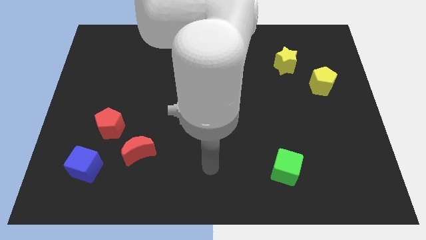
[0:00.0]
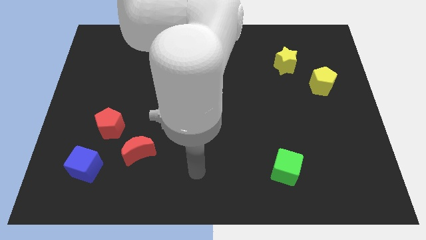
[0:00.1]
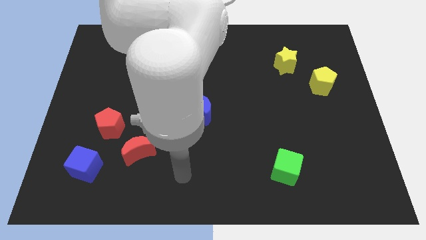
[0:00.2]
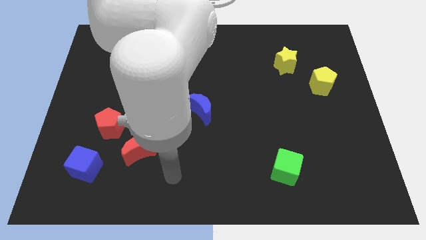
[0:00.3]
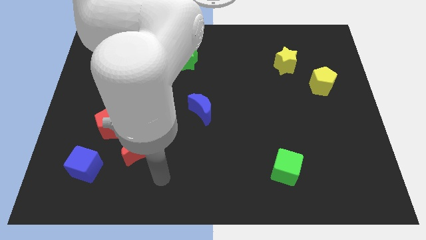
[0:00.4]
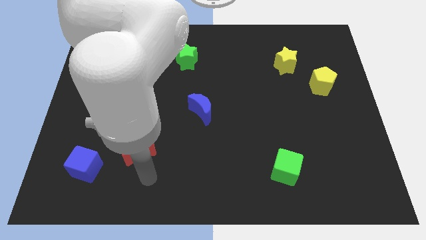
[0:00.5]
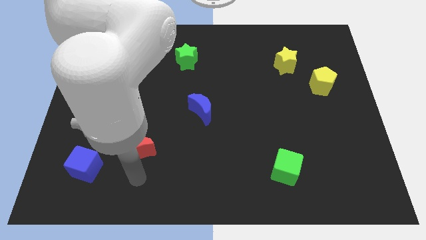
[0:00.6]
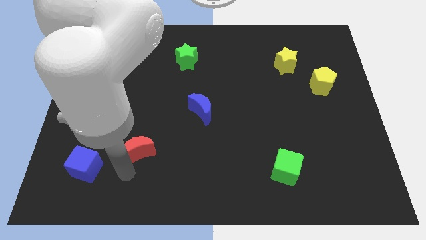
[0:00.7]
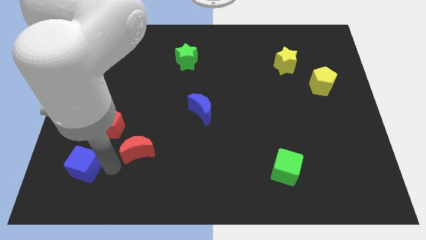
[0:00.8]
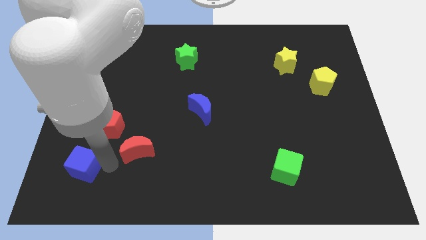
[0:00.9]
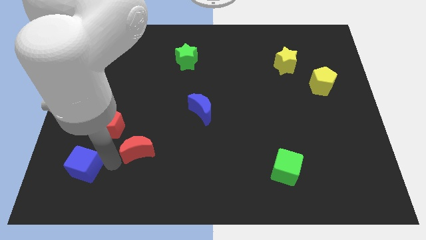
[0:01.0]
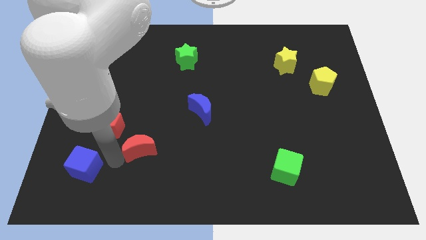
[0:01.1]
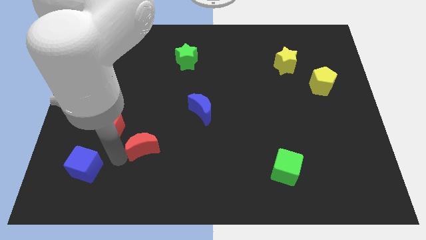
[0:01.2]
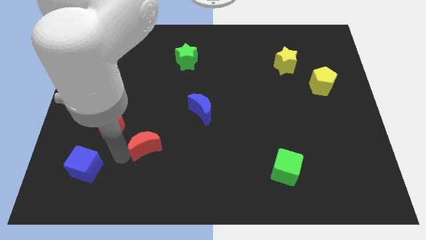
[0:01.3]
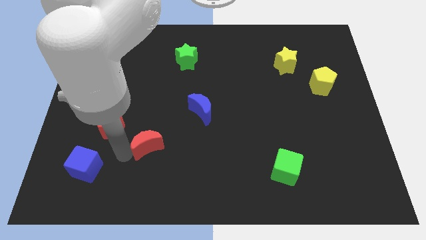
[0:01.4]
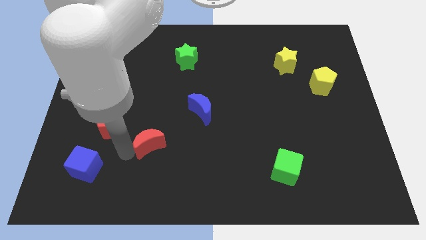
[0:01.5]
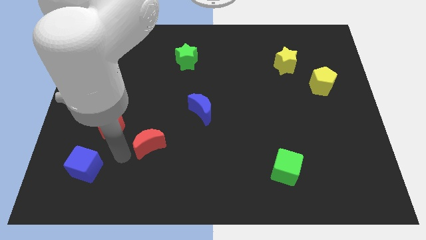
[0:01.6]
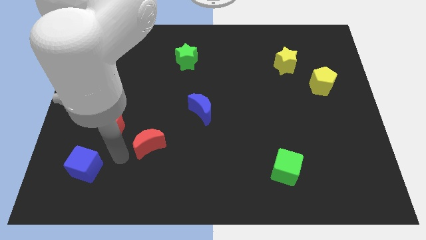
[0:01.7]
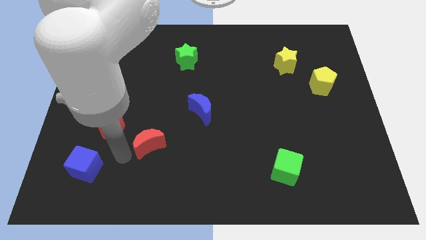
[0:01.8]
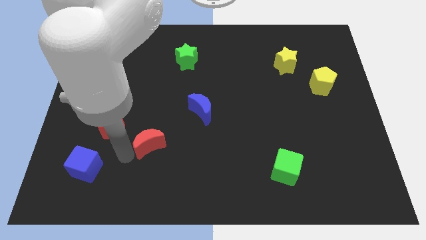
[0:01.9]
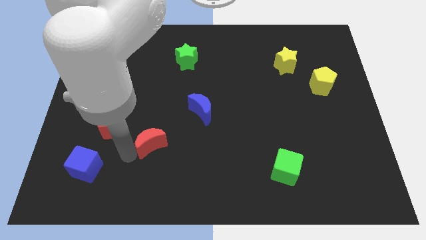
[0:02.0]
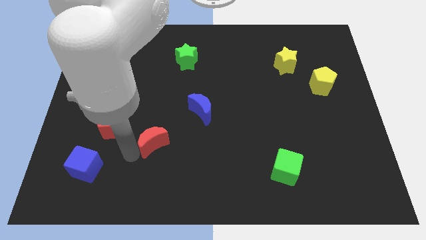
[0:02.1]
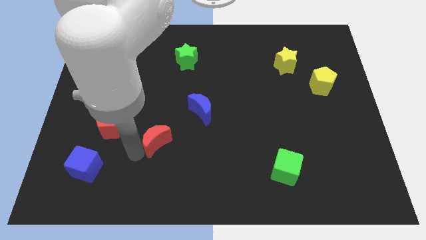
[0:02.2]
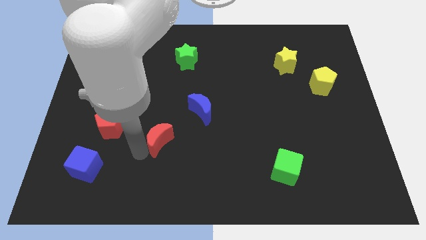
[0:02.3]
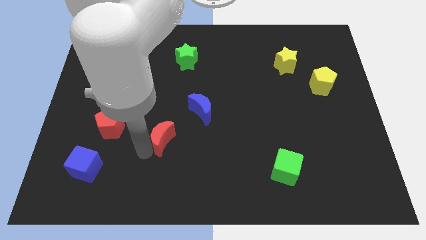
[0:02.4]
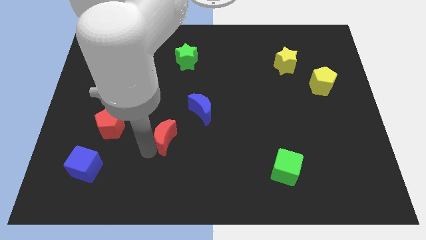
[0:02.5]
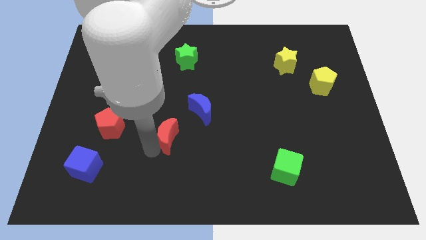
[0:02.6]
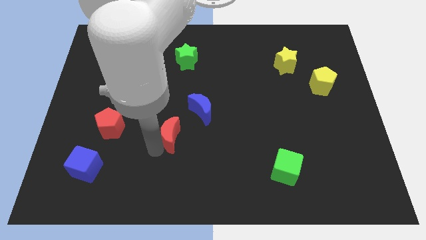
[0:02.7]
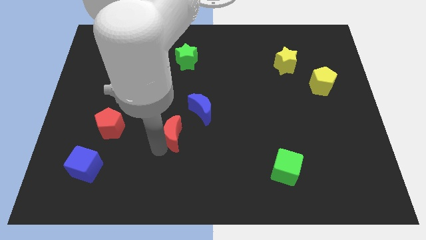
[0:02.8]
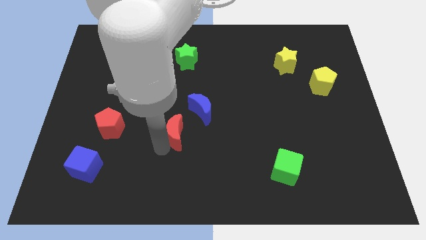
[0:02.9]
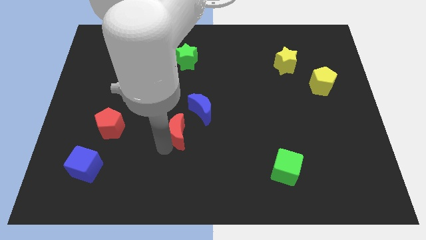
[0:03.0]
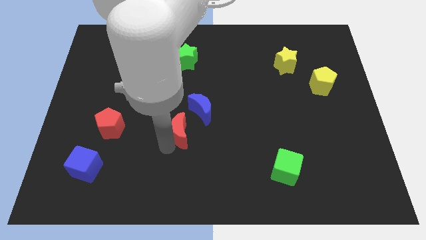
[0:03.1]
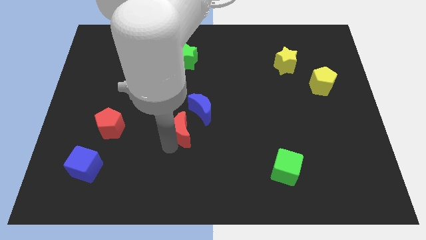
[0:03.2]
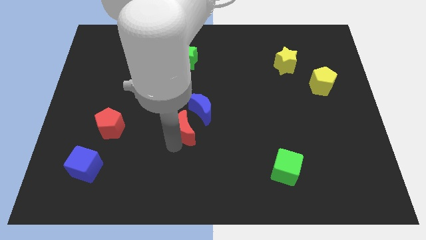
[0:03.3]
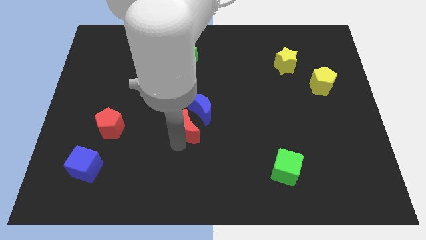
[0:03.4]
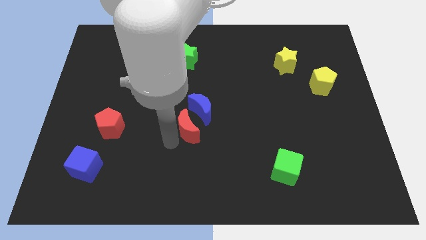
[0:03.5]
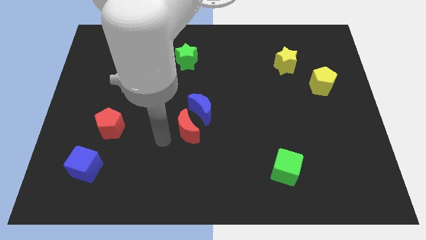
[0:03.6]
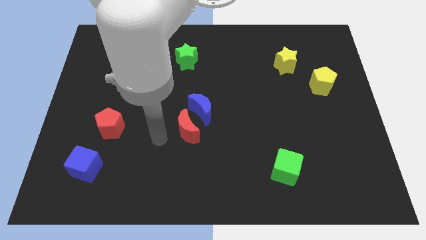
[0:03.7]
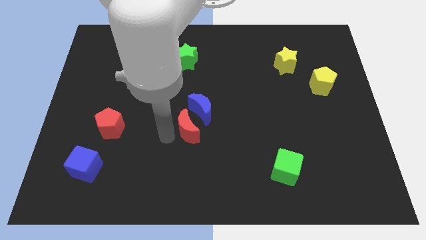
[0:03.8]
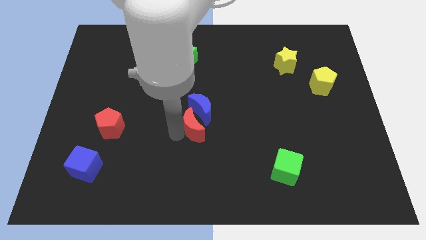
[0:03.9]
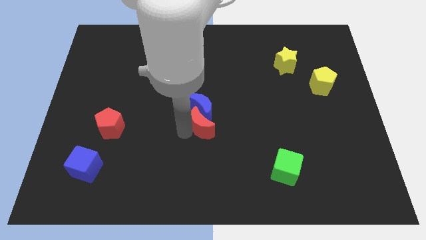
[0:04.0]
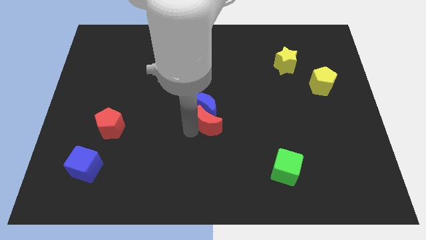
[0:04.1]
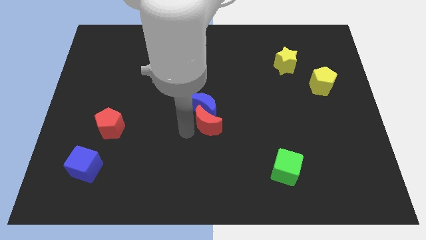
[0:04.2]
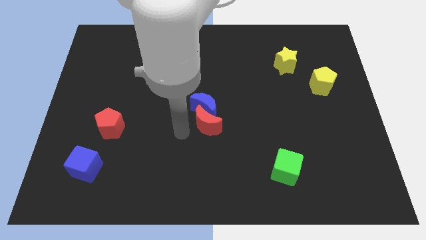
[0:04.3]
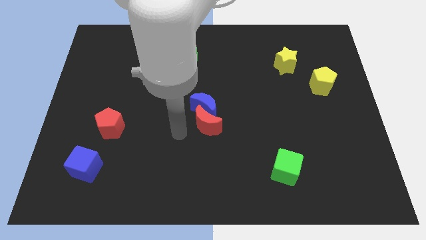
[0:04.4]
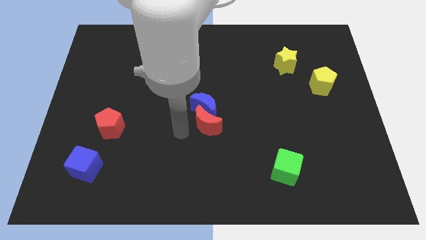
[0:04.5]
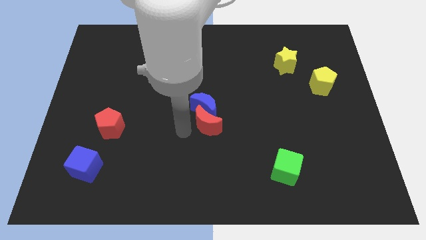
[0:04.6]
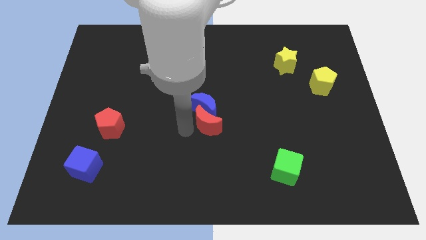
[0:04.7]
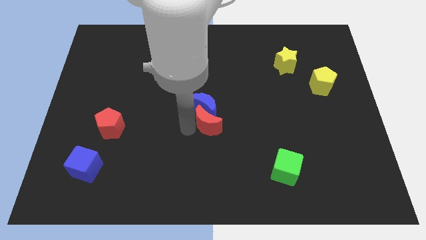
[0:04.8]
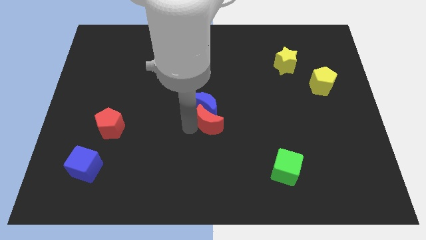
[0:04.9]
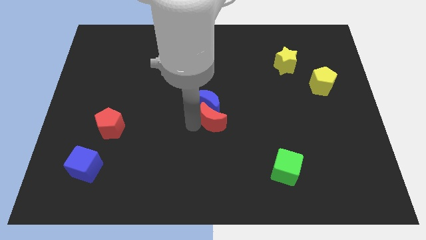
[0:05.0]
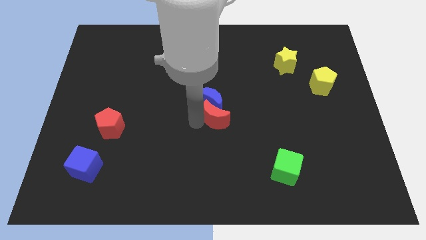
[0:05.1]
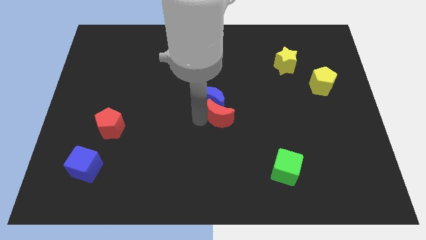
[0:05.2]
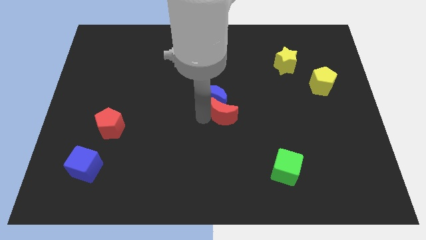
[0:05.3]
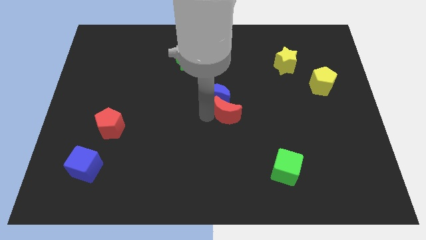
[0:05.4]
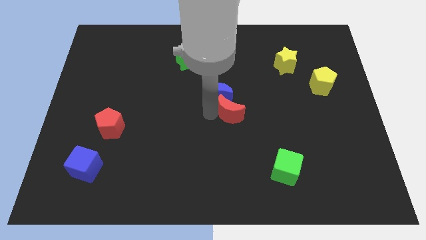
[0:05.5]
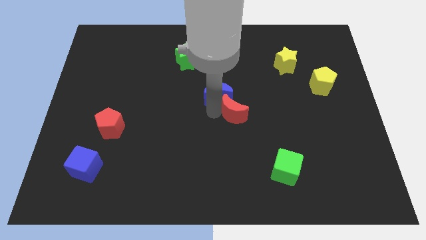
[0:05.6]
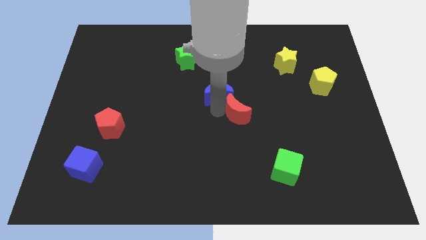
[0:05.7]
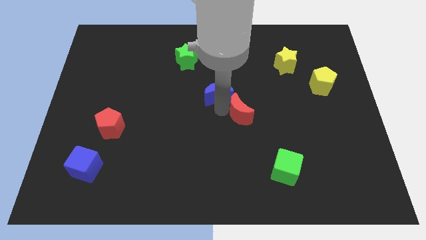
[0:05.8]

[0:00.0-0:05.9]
slide the red moon just right of the blue moon
